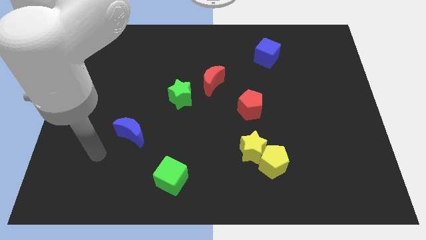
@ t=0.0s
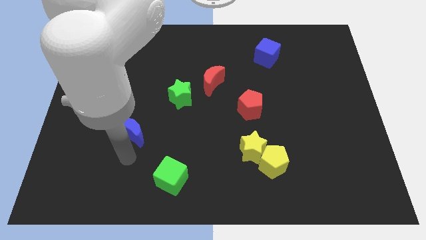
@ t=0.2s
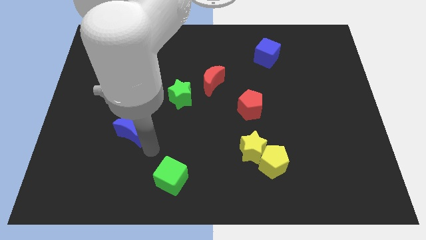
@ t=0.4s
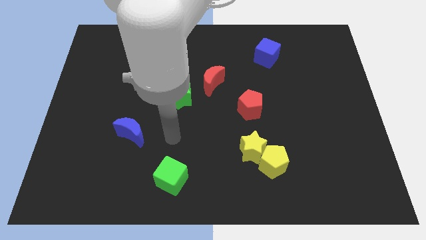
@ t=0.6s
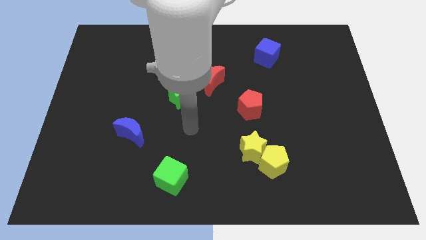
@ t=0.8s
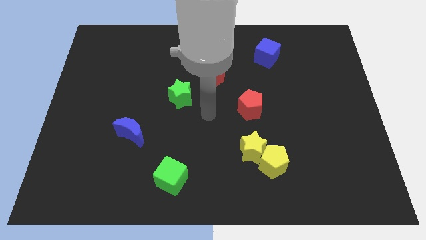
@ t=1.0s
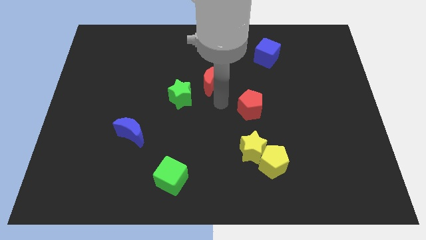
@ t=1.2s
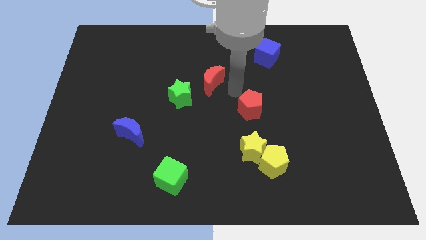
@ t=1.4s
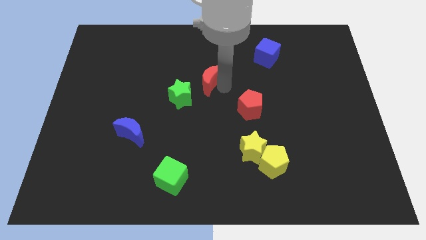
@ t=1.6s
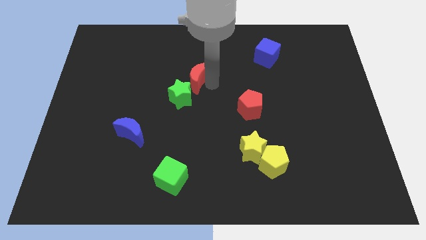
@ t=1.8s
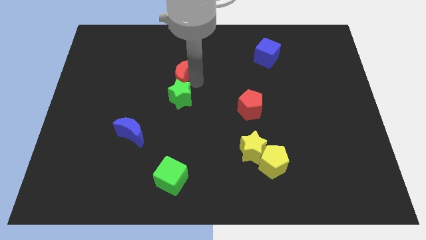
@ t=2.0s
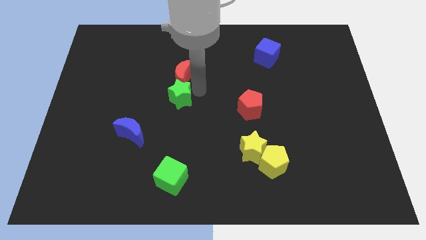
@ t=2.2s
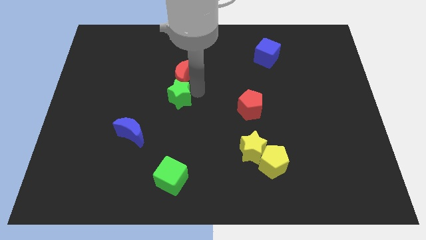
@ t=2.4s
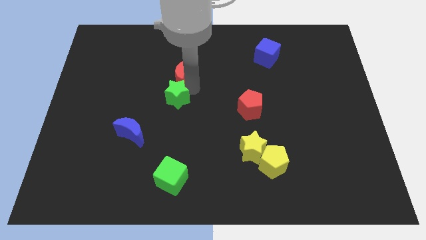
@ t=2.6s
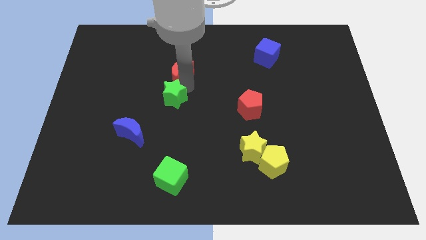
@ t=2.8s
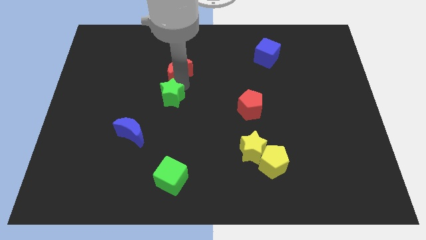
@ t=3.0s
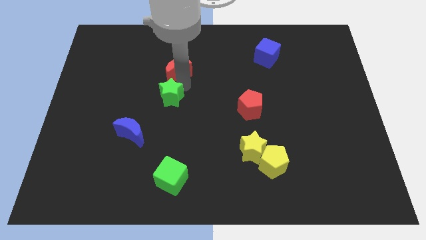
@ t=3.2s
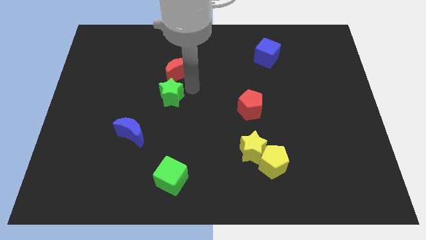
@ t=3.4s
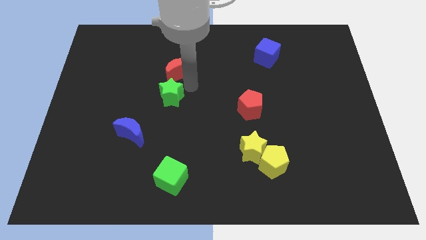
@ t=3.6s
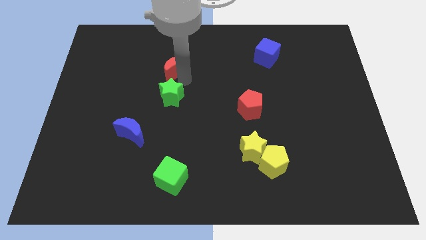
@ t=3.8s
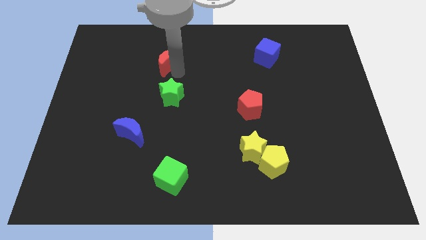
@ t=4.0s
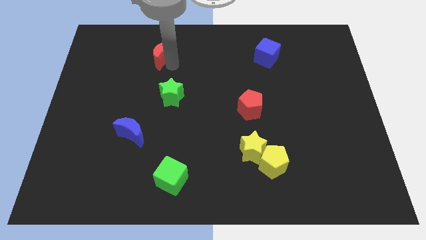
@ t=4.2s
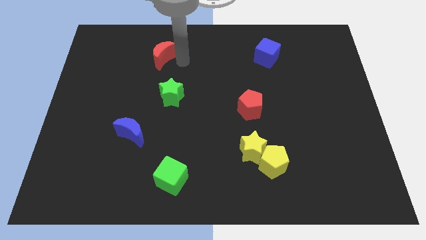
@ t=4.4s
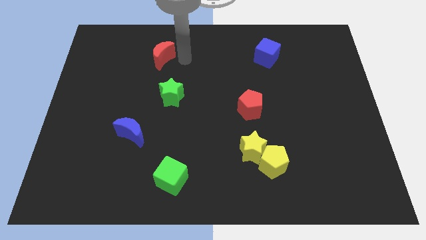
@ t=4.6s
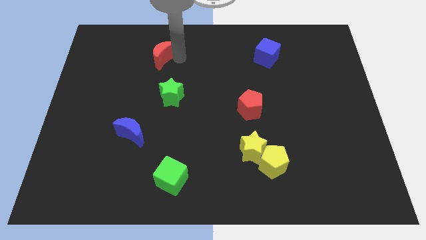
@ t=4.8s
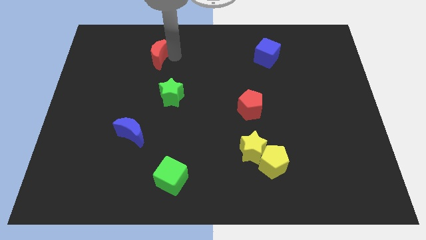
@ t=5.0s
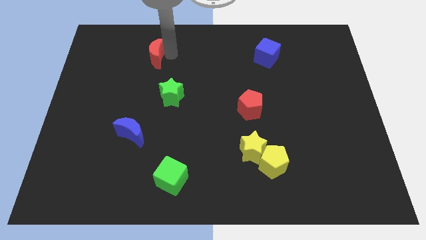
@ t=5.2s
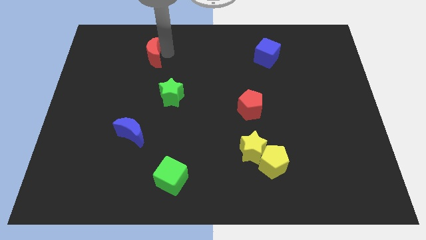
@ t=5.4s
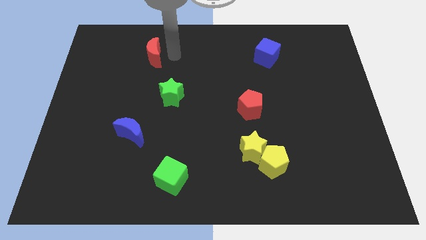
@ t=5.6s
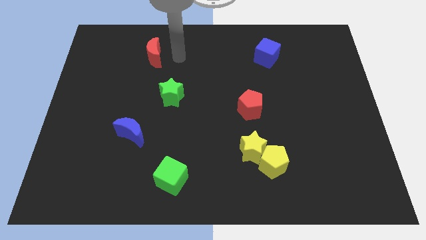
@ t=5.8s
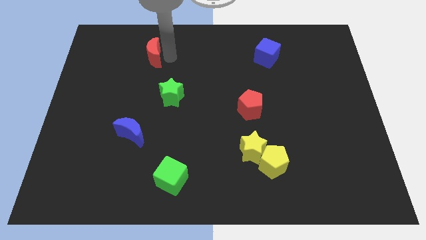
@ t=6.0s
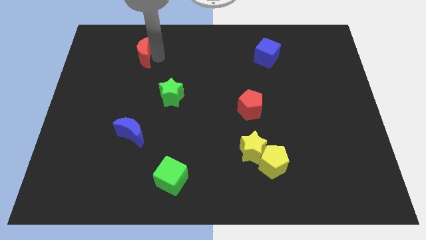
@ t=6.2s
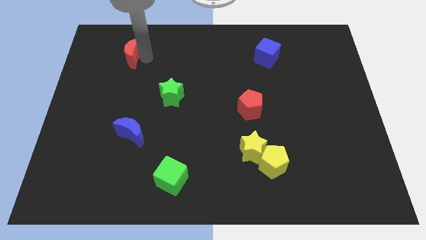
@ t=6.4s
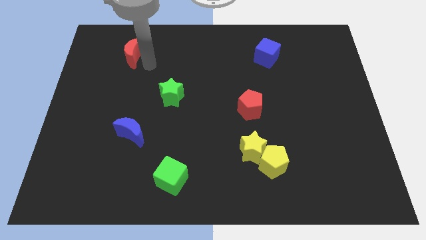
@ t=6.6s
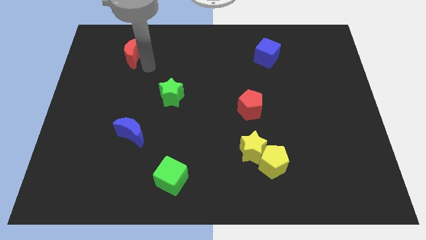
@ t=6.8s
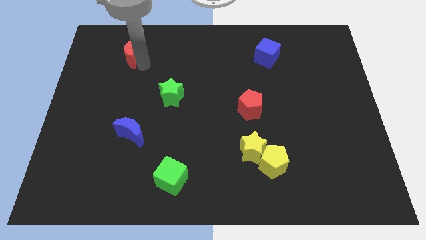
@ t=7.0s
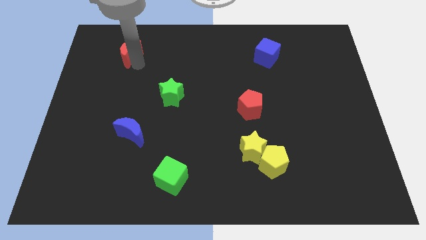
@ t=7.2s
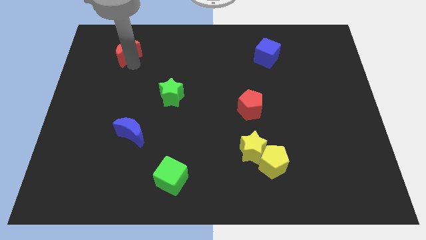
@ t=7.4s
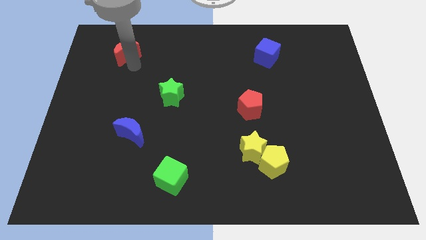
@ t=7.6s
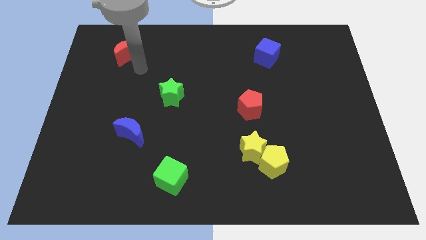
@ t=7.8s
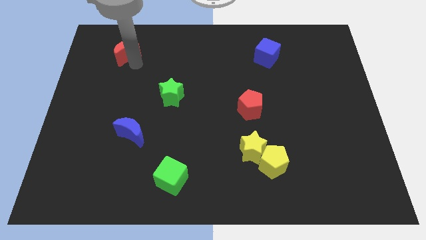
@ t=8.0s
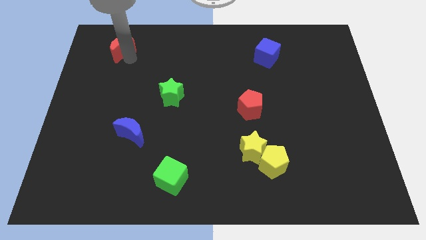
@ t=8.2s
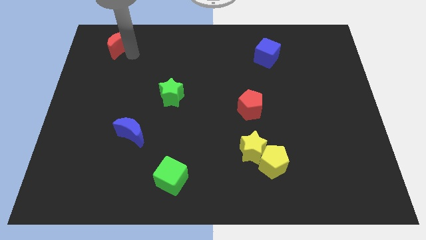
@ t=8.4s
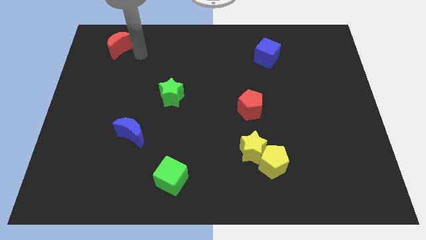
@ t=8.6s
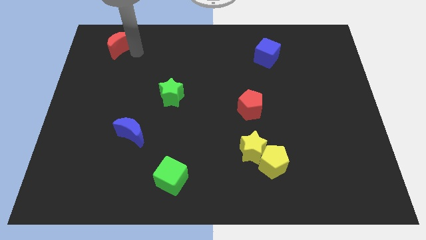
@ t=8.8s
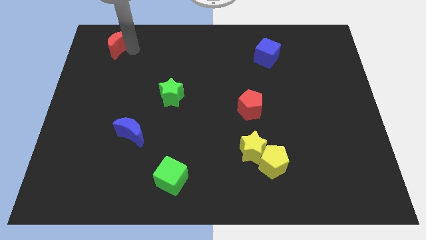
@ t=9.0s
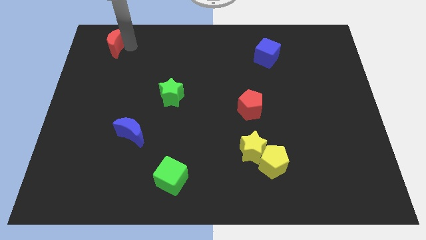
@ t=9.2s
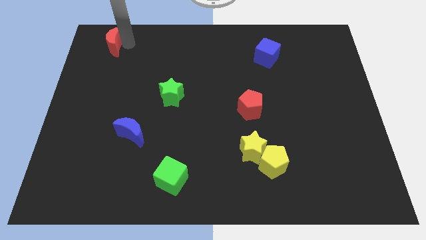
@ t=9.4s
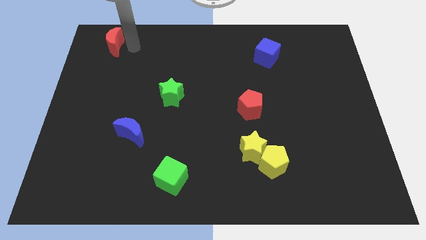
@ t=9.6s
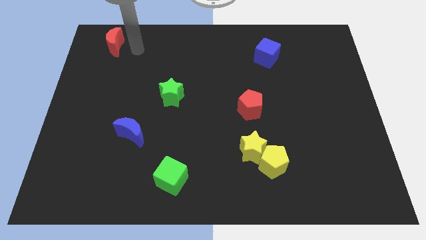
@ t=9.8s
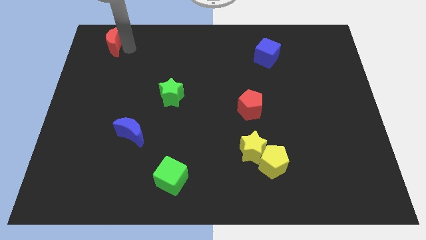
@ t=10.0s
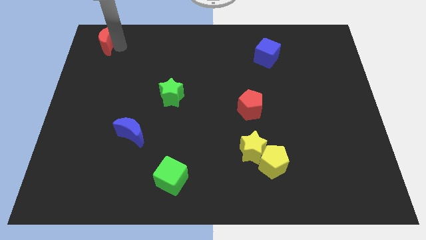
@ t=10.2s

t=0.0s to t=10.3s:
slide the red moon to the top left of the board

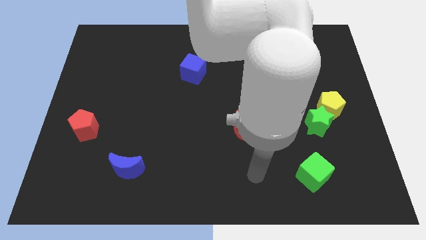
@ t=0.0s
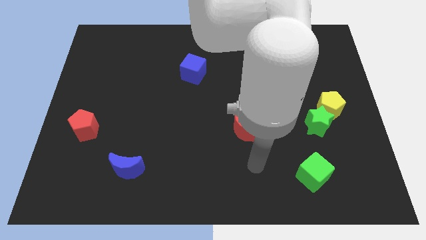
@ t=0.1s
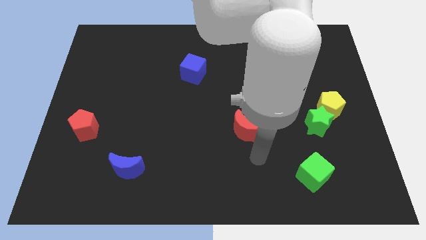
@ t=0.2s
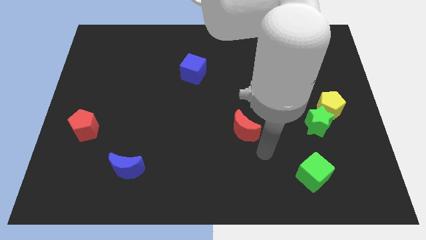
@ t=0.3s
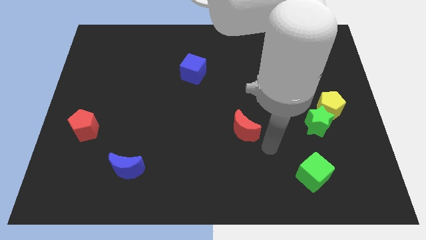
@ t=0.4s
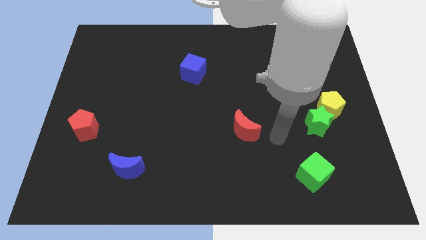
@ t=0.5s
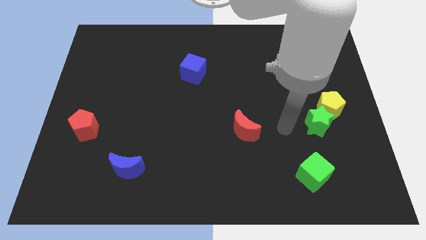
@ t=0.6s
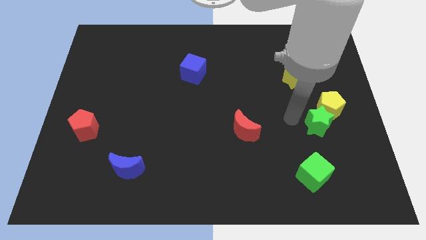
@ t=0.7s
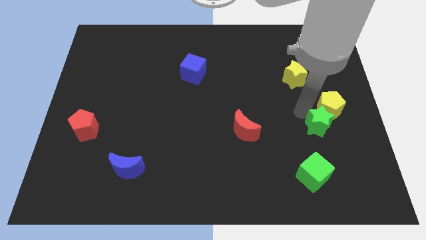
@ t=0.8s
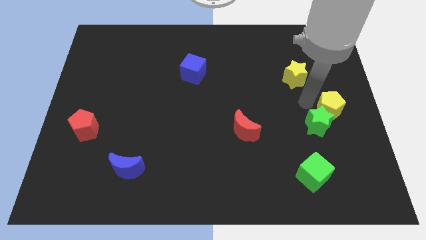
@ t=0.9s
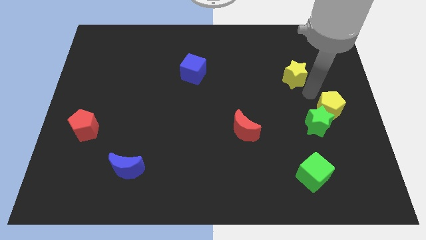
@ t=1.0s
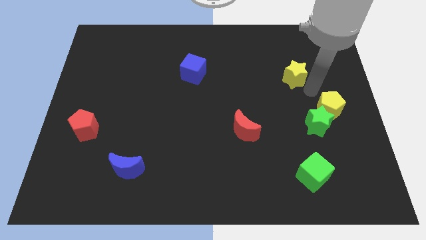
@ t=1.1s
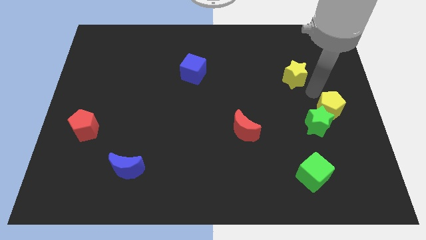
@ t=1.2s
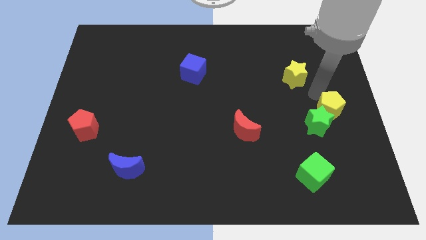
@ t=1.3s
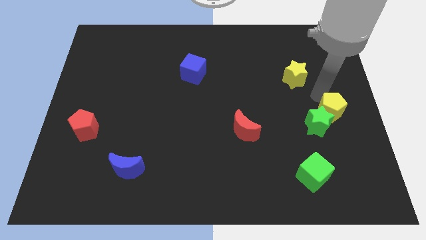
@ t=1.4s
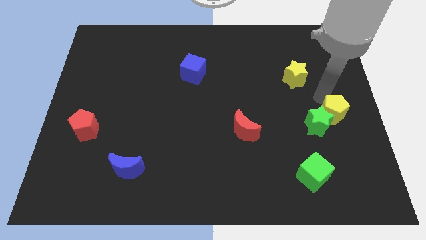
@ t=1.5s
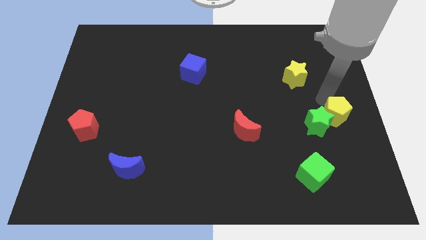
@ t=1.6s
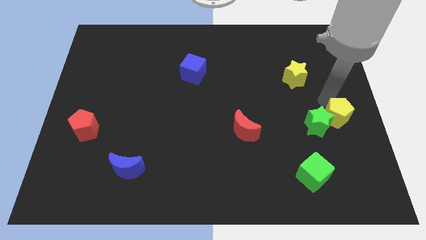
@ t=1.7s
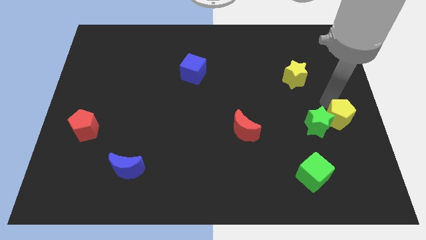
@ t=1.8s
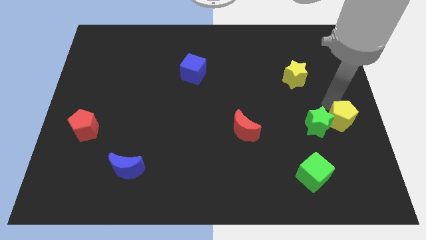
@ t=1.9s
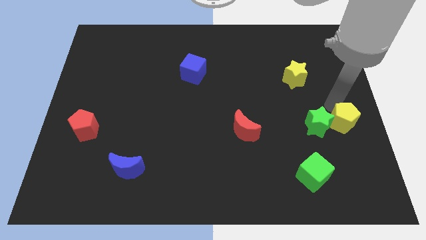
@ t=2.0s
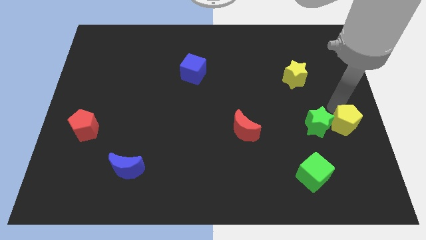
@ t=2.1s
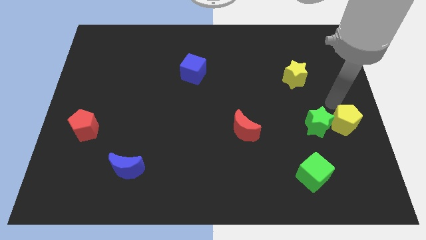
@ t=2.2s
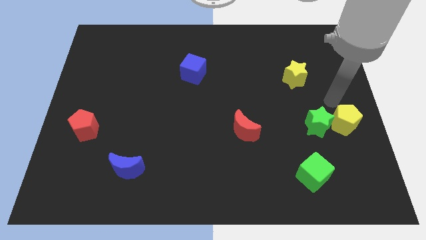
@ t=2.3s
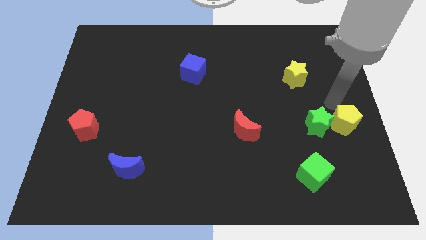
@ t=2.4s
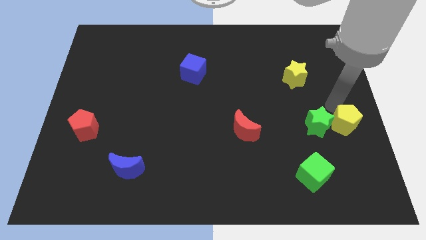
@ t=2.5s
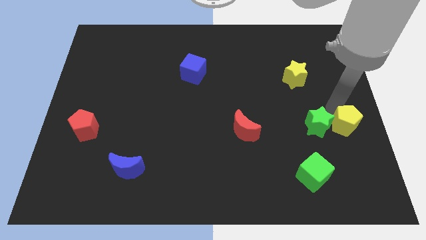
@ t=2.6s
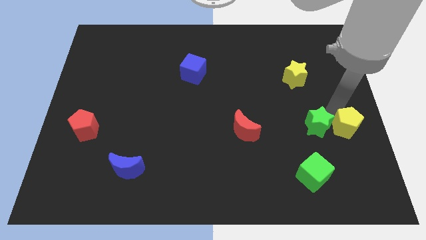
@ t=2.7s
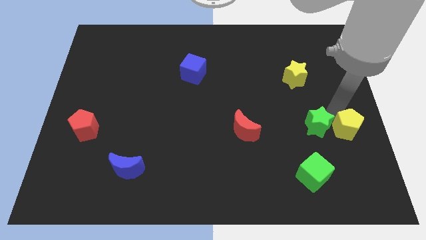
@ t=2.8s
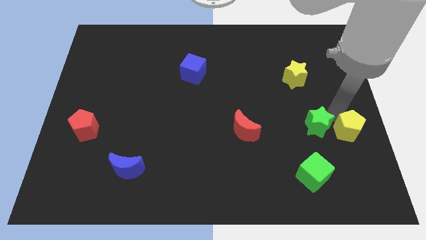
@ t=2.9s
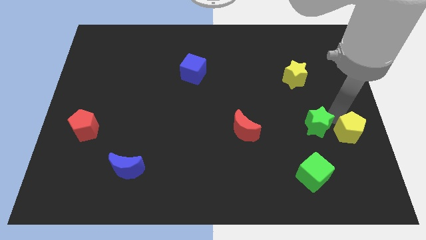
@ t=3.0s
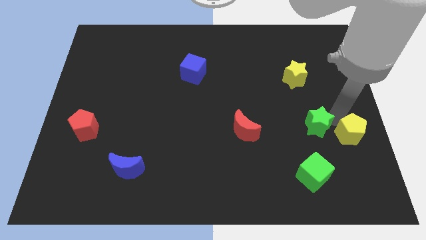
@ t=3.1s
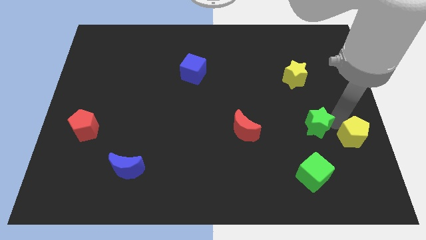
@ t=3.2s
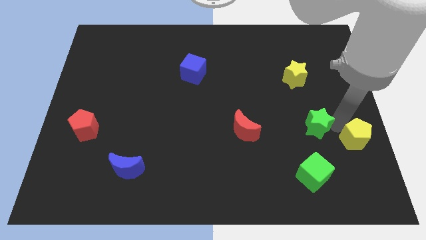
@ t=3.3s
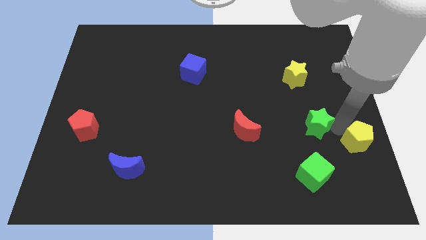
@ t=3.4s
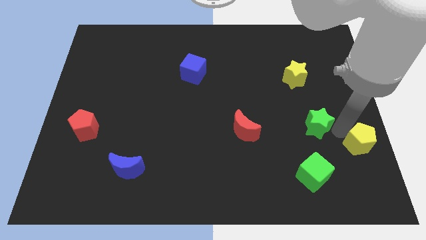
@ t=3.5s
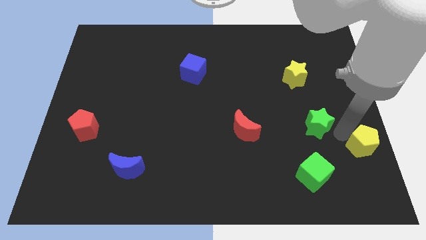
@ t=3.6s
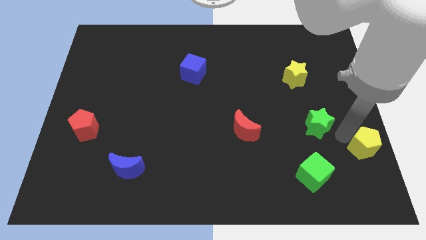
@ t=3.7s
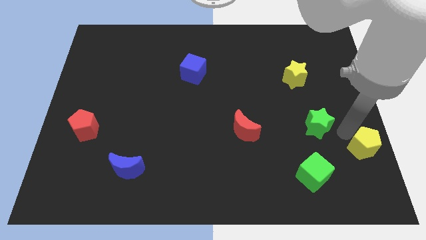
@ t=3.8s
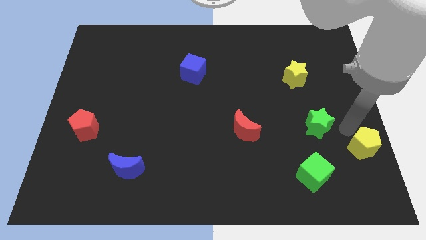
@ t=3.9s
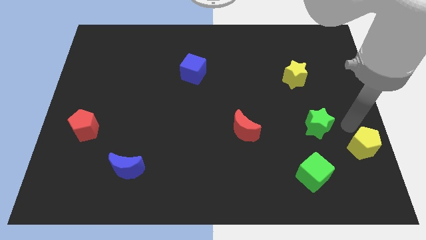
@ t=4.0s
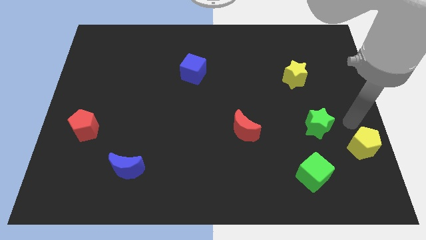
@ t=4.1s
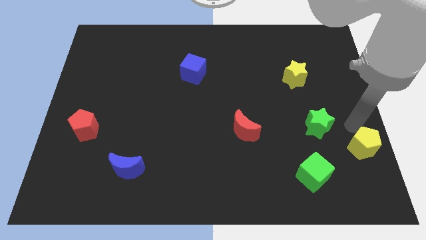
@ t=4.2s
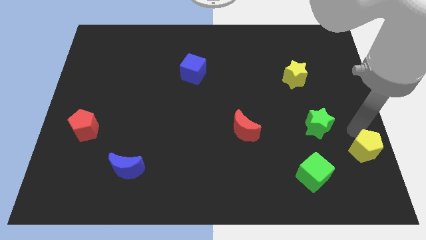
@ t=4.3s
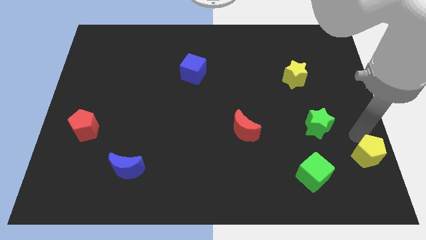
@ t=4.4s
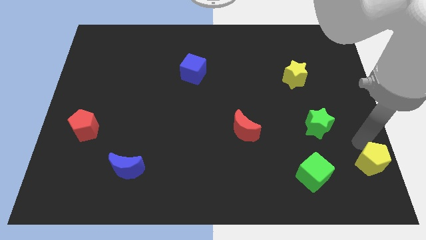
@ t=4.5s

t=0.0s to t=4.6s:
move the yellow pentagon to the bottom right
